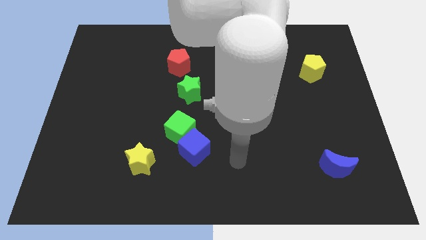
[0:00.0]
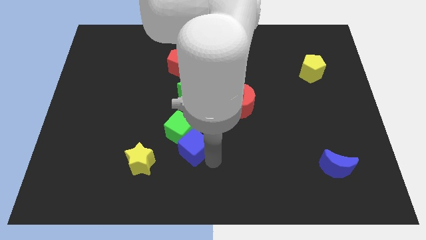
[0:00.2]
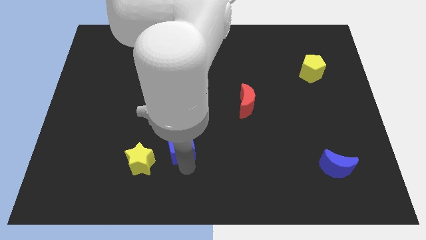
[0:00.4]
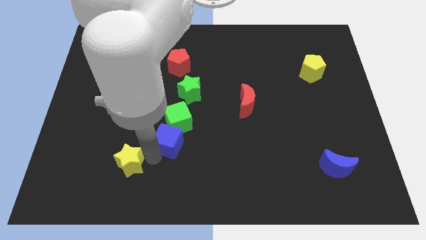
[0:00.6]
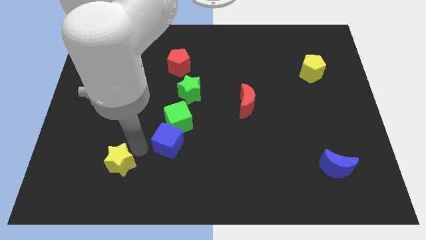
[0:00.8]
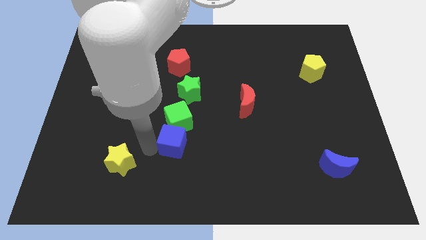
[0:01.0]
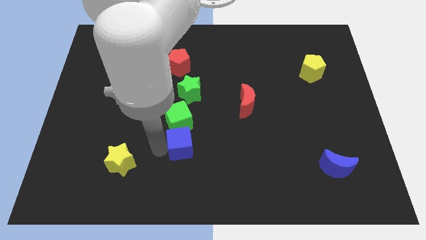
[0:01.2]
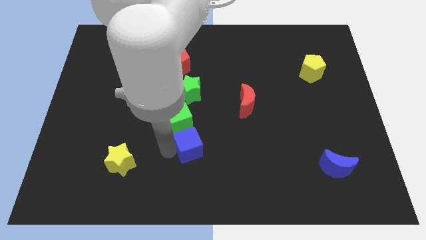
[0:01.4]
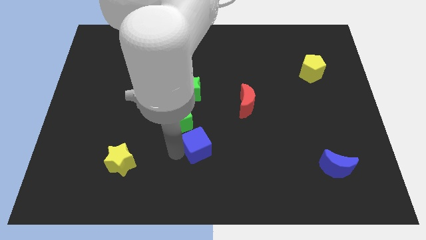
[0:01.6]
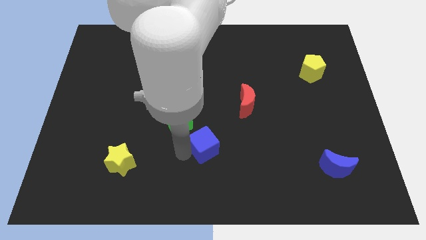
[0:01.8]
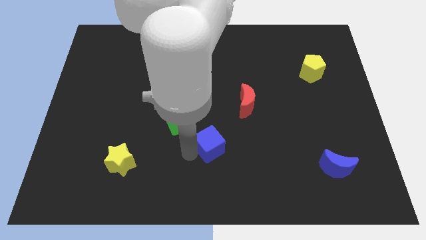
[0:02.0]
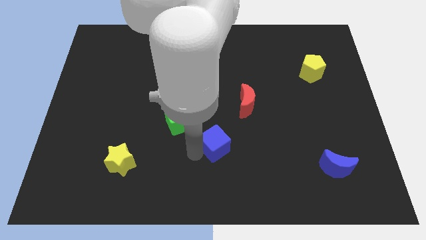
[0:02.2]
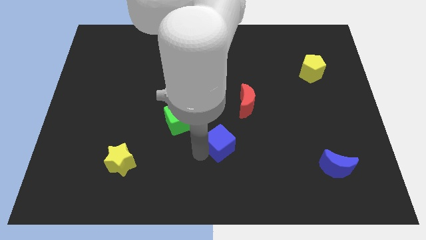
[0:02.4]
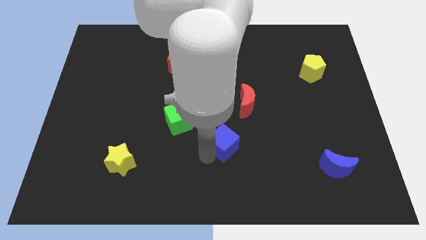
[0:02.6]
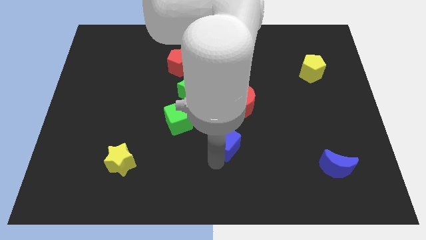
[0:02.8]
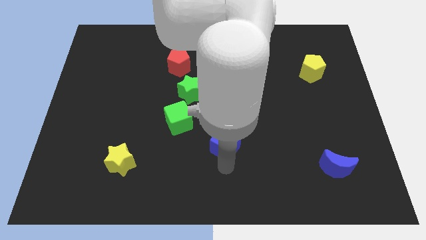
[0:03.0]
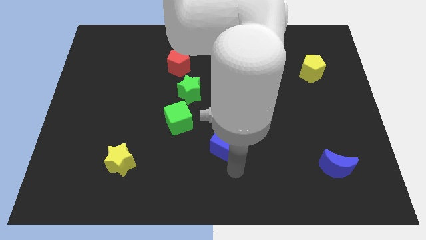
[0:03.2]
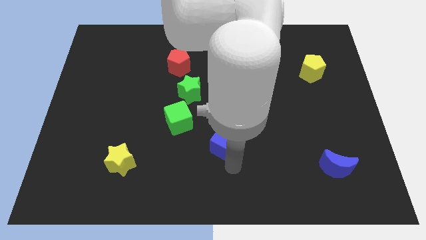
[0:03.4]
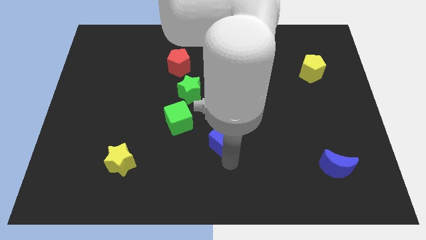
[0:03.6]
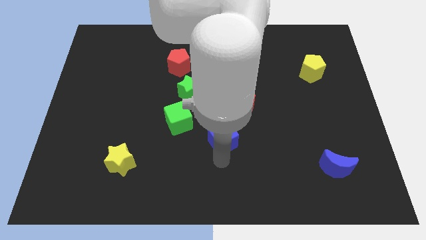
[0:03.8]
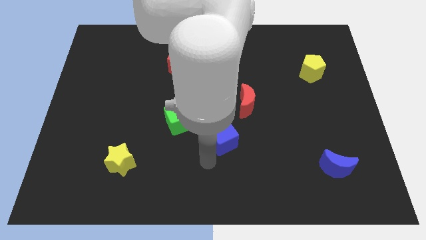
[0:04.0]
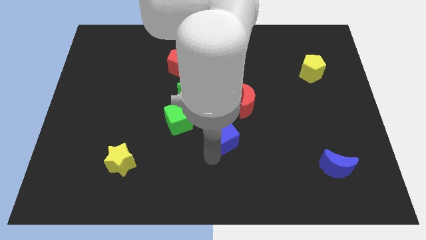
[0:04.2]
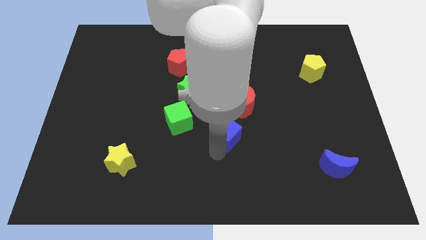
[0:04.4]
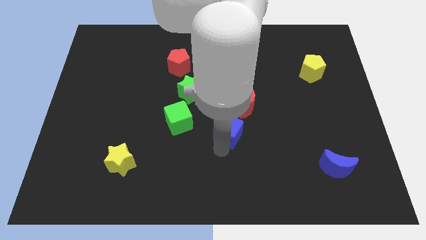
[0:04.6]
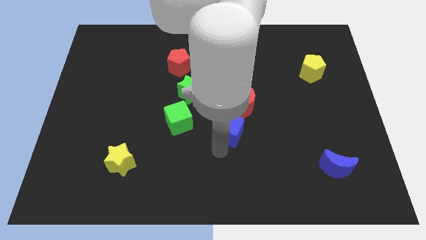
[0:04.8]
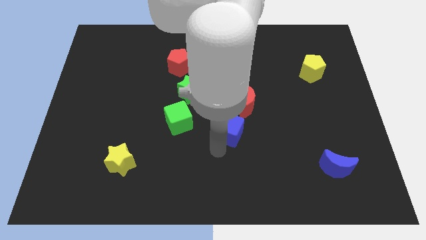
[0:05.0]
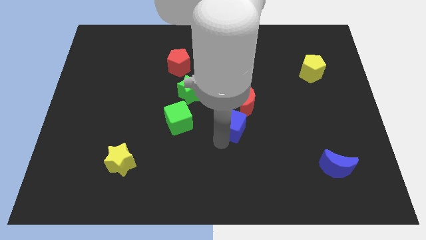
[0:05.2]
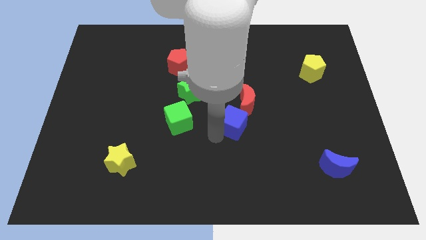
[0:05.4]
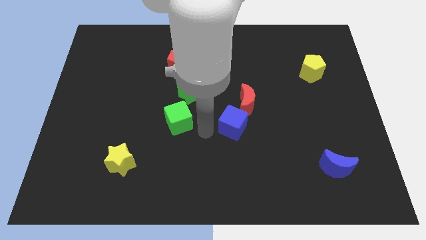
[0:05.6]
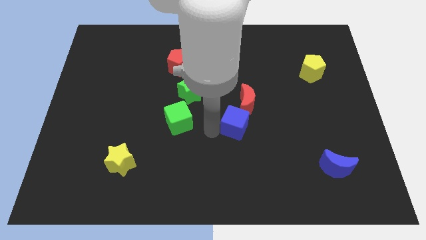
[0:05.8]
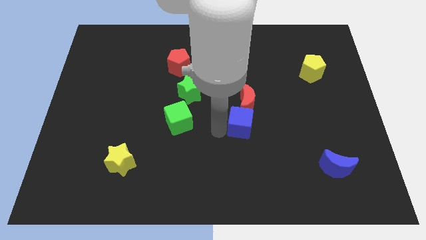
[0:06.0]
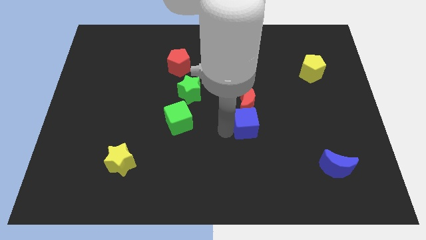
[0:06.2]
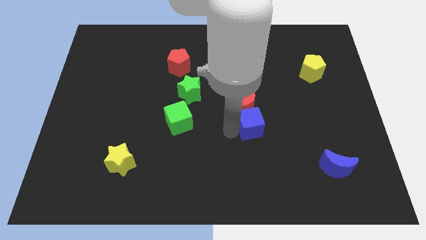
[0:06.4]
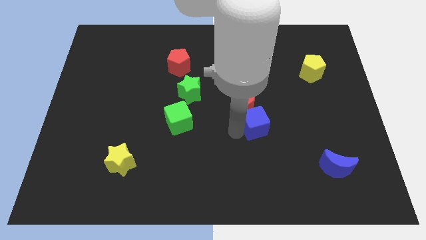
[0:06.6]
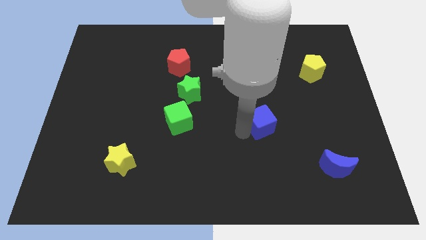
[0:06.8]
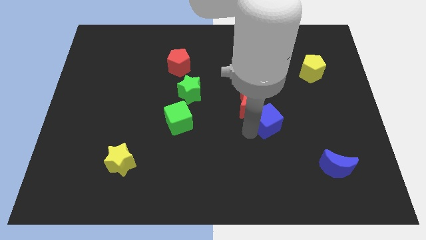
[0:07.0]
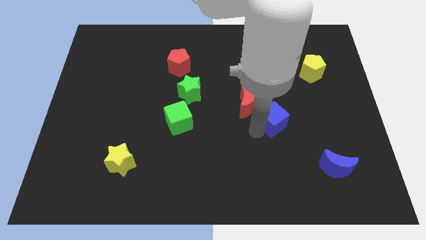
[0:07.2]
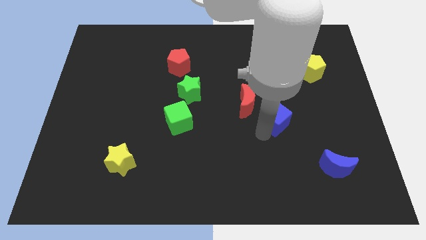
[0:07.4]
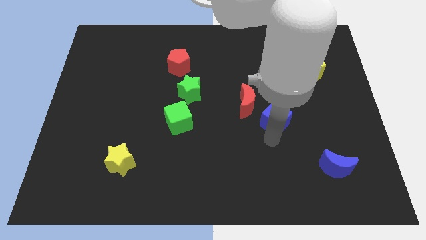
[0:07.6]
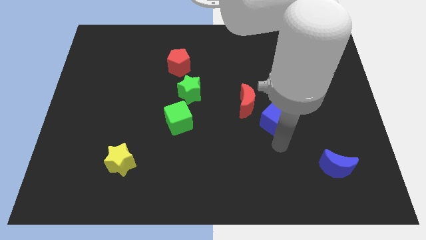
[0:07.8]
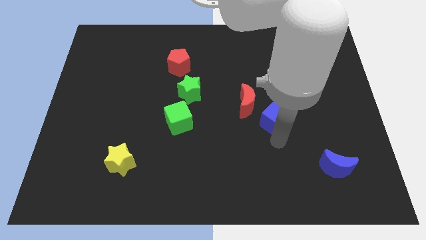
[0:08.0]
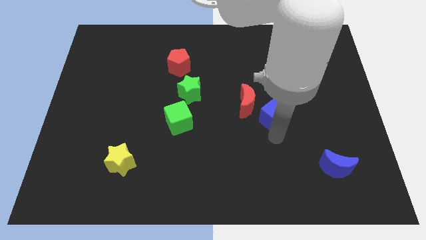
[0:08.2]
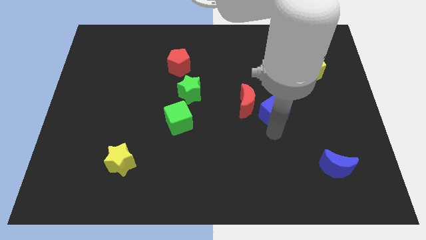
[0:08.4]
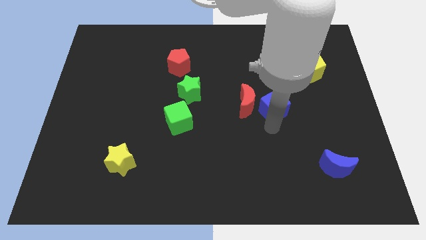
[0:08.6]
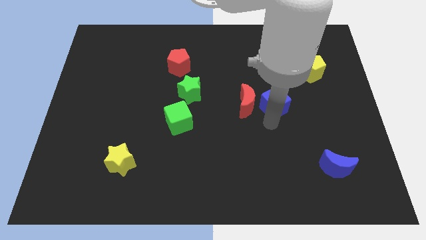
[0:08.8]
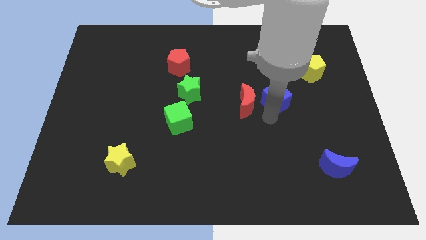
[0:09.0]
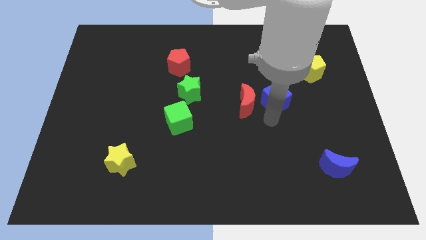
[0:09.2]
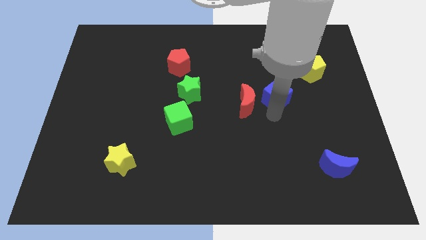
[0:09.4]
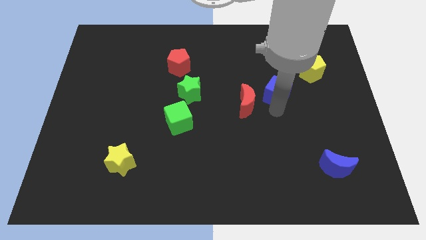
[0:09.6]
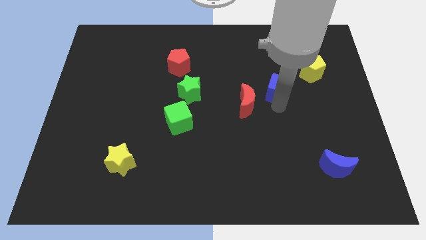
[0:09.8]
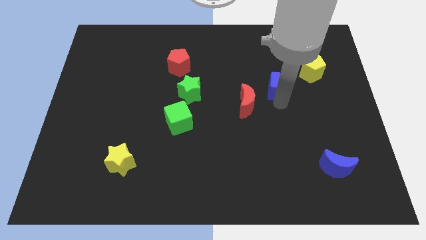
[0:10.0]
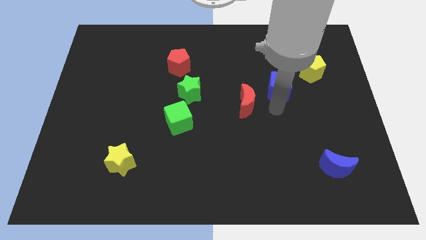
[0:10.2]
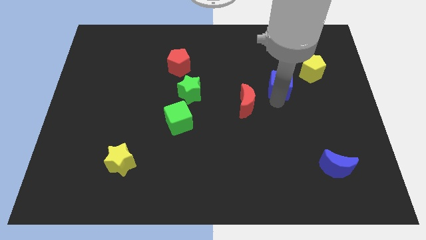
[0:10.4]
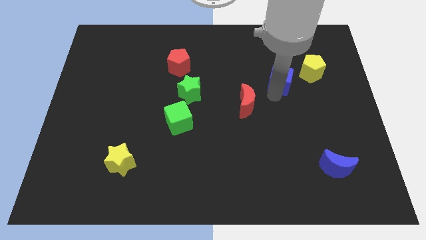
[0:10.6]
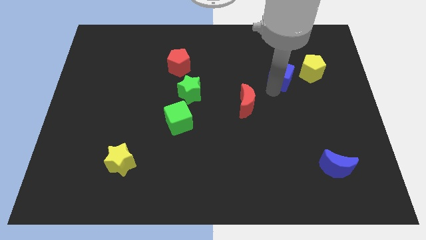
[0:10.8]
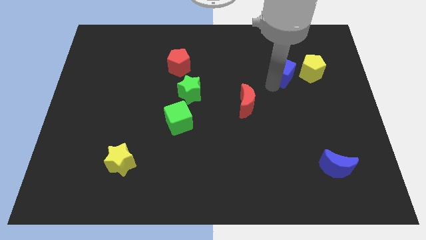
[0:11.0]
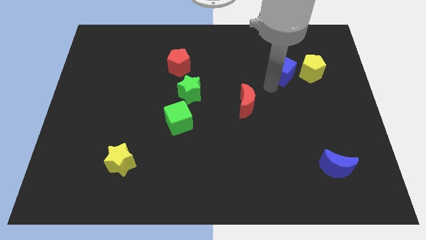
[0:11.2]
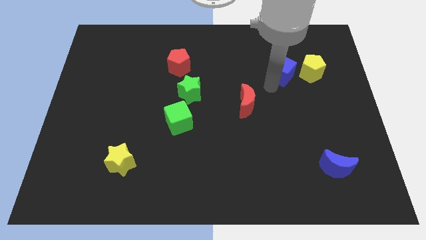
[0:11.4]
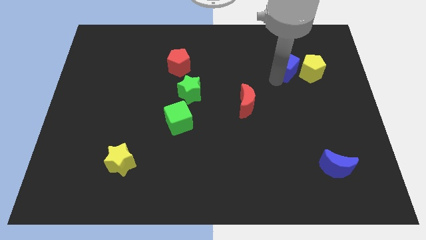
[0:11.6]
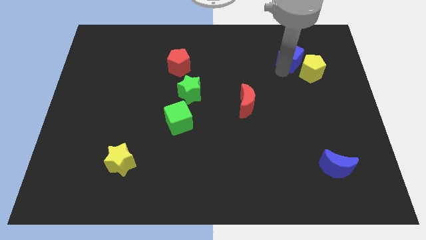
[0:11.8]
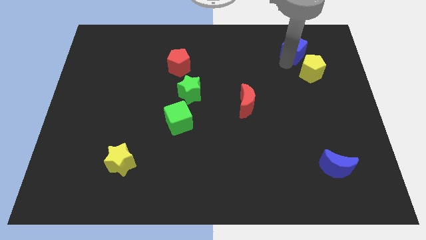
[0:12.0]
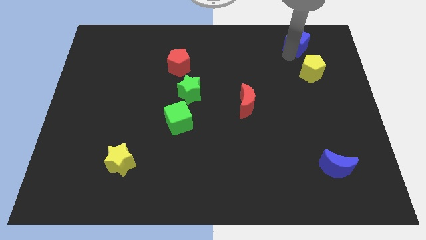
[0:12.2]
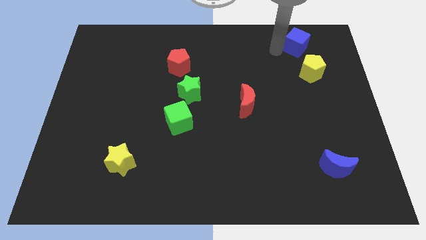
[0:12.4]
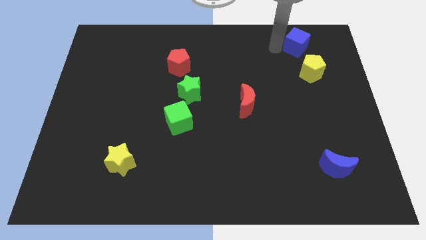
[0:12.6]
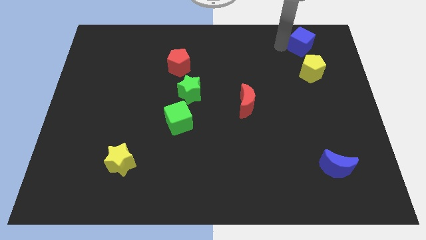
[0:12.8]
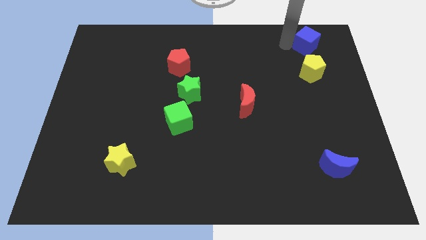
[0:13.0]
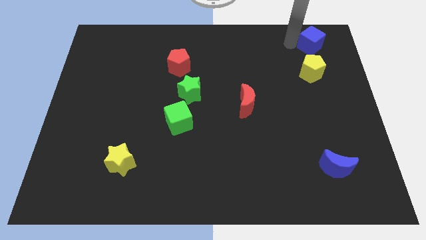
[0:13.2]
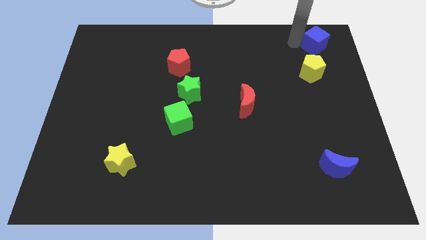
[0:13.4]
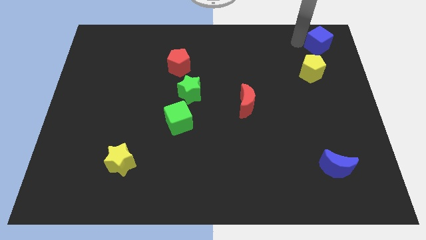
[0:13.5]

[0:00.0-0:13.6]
move the blue cube to the top right corner

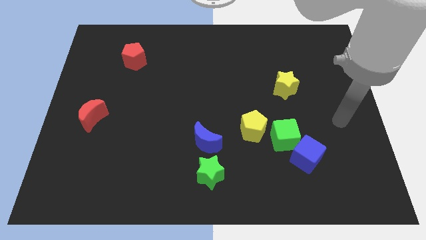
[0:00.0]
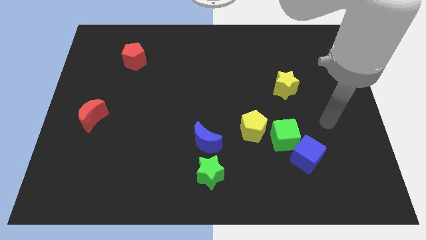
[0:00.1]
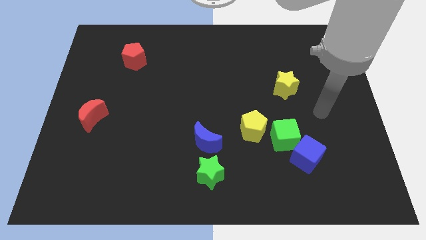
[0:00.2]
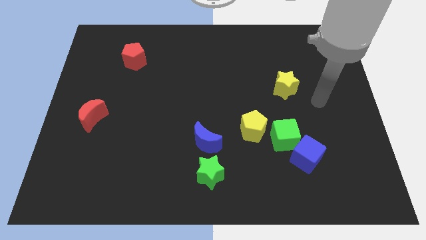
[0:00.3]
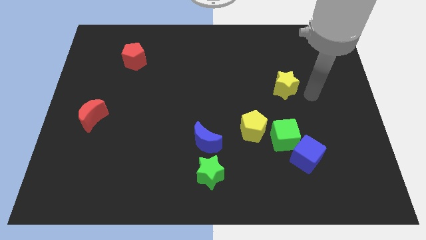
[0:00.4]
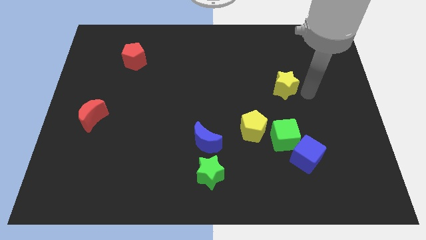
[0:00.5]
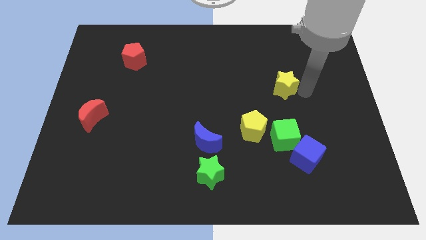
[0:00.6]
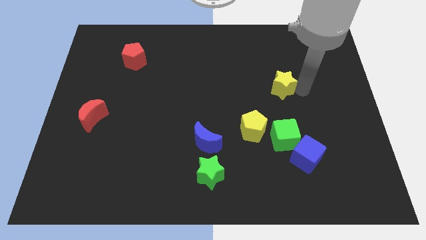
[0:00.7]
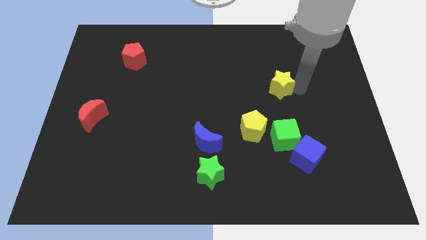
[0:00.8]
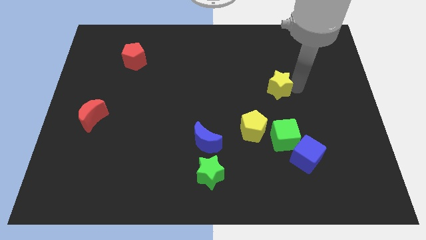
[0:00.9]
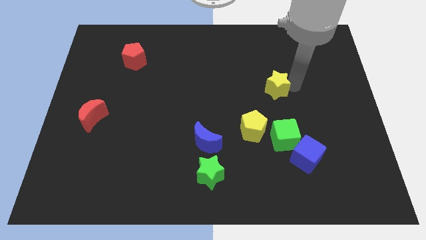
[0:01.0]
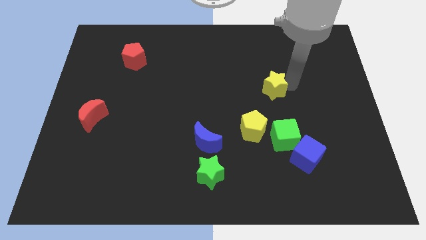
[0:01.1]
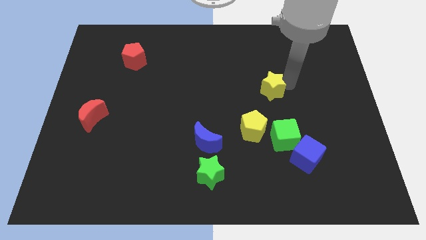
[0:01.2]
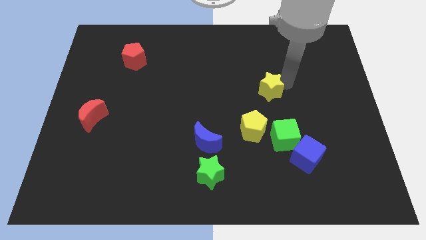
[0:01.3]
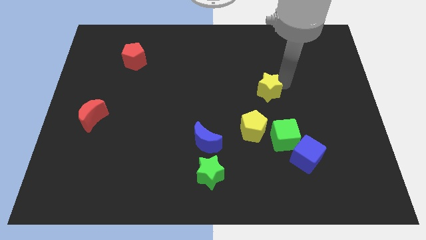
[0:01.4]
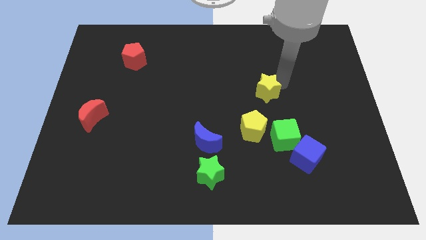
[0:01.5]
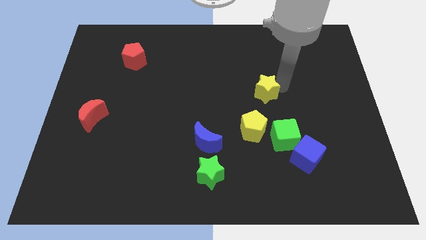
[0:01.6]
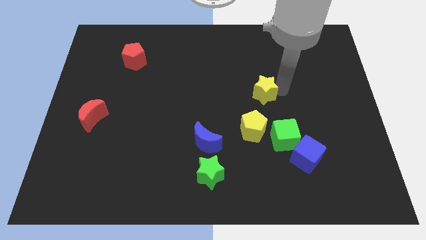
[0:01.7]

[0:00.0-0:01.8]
push the yellow star to the center of the board
